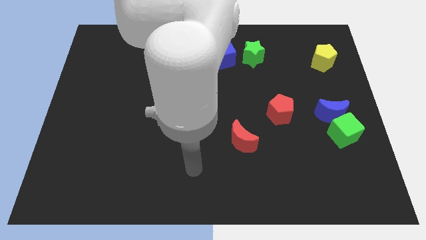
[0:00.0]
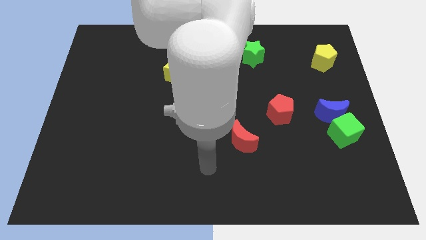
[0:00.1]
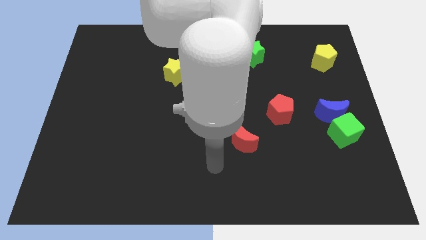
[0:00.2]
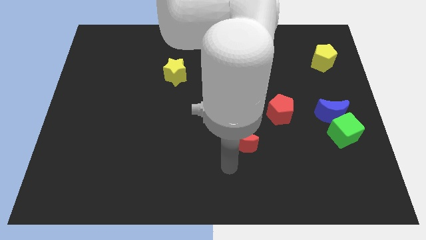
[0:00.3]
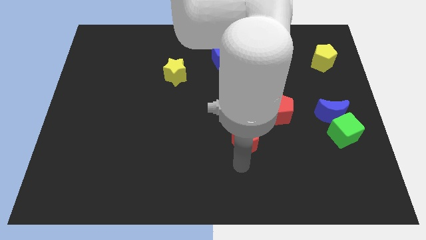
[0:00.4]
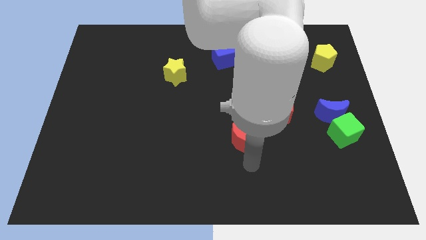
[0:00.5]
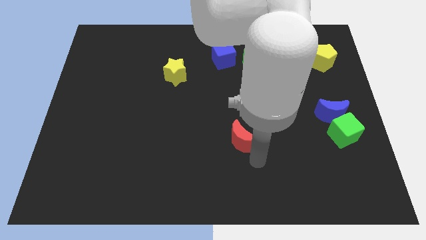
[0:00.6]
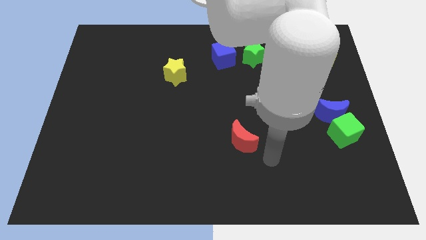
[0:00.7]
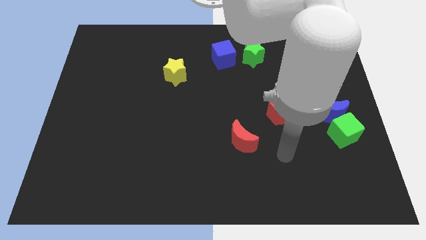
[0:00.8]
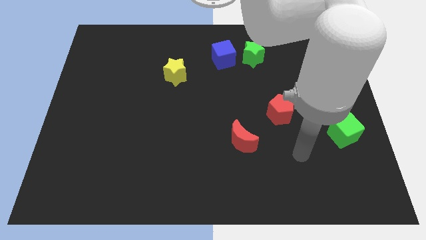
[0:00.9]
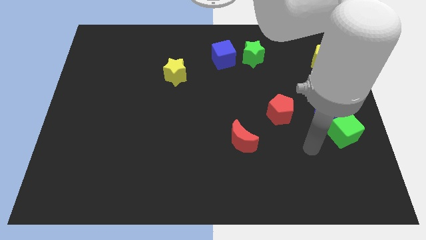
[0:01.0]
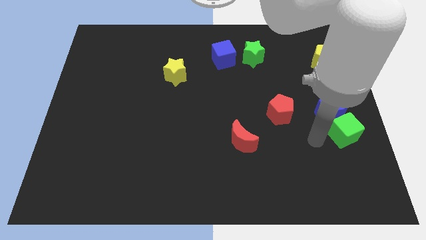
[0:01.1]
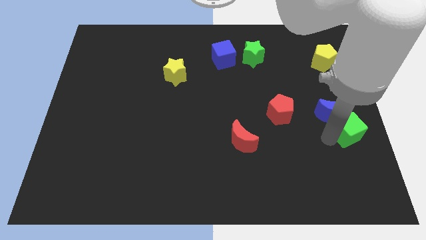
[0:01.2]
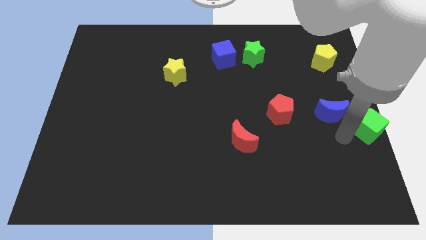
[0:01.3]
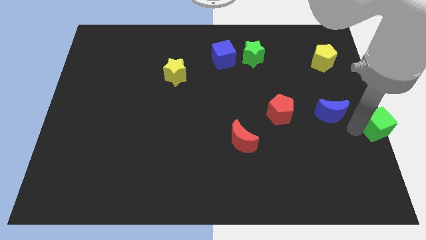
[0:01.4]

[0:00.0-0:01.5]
separate the blue moon from the green cube

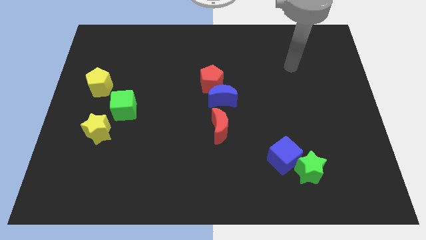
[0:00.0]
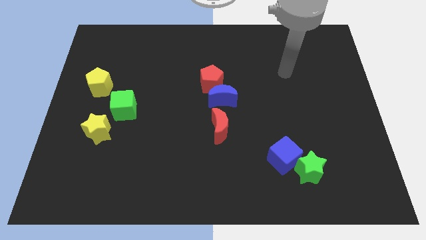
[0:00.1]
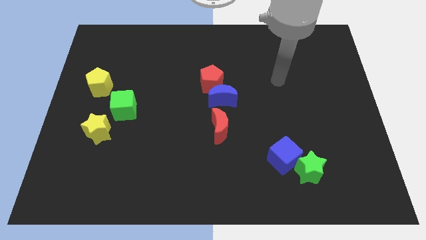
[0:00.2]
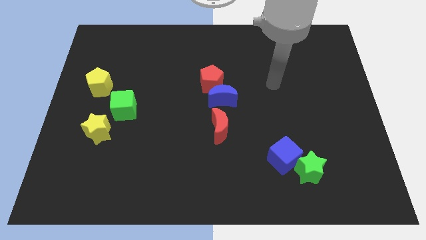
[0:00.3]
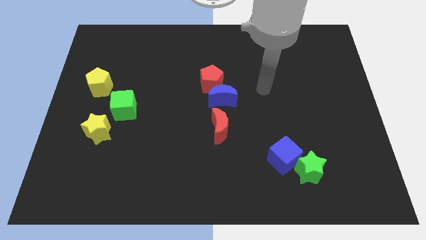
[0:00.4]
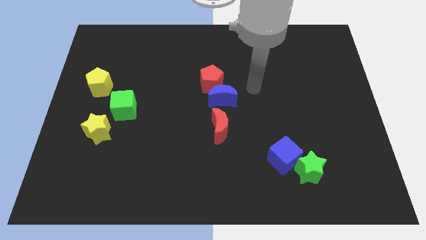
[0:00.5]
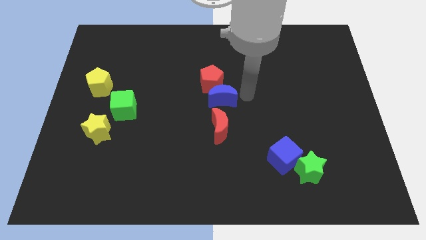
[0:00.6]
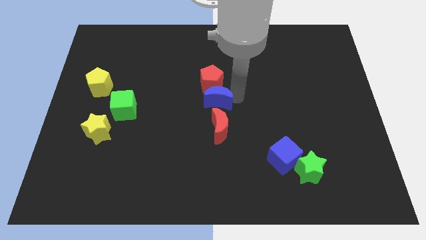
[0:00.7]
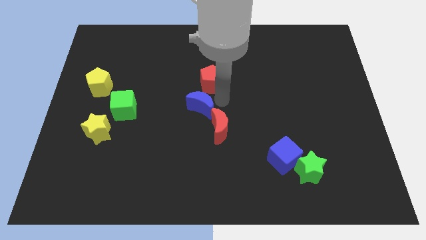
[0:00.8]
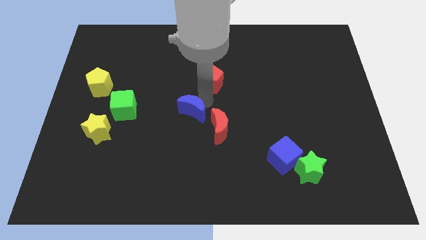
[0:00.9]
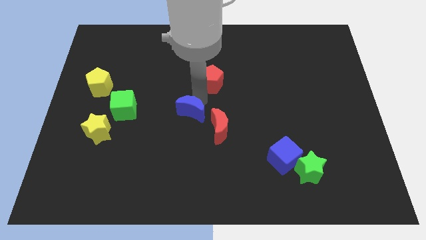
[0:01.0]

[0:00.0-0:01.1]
pull the red pentagon apart from the blue moon

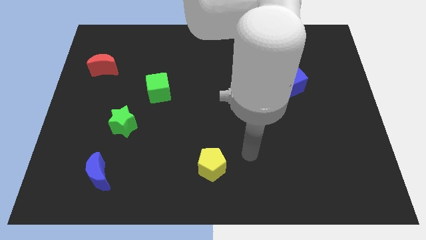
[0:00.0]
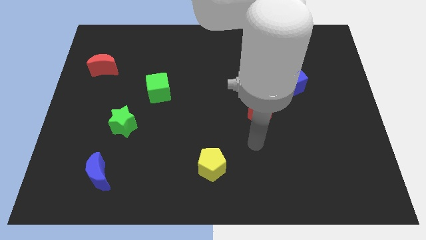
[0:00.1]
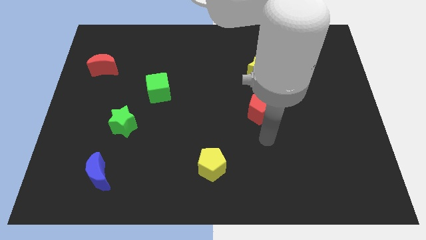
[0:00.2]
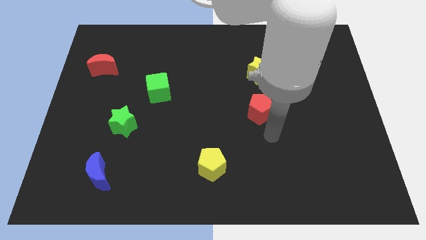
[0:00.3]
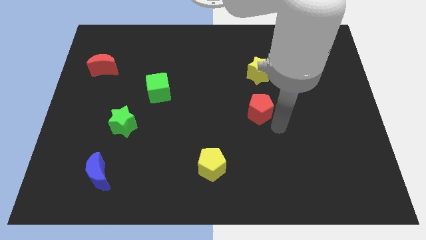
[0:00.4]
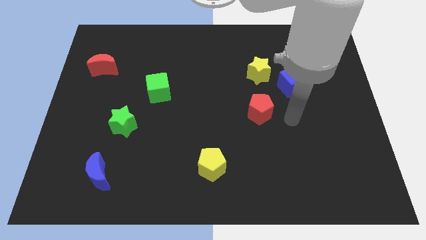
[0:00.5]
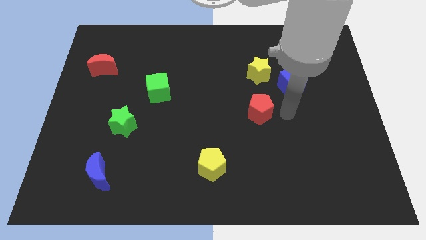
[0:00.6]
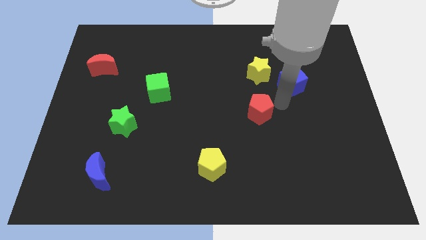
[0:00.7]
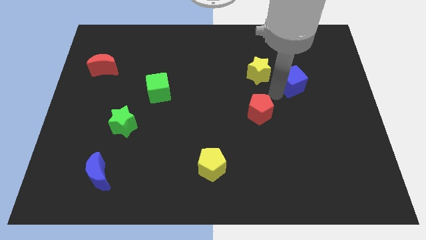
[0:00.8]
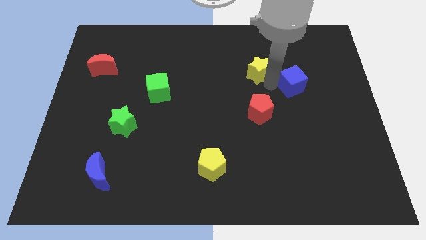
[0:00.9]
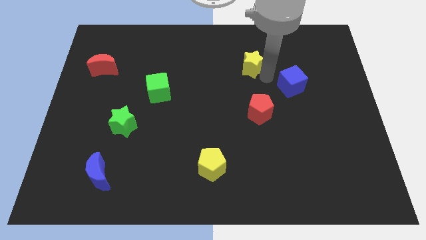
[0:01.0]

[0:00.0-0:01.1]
separate the blue cube from the yellow star

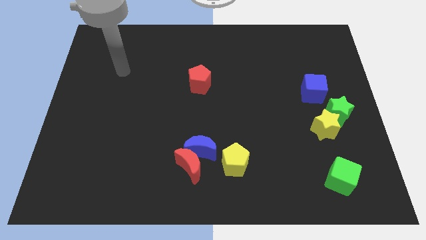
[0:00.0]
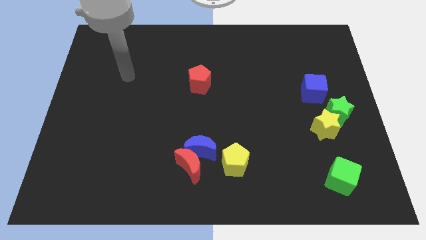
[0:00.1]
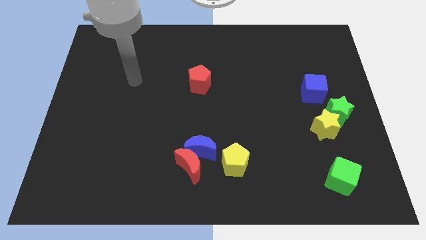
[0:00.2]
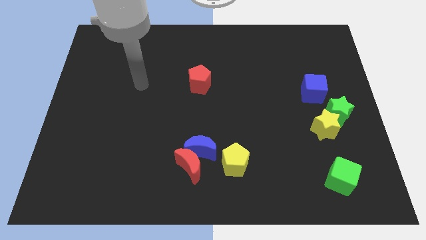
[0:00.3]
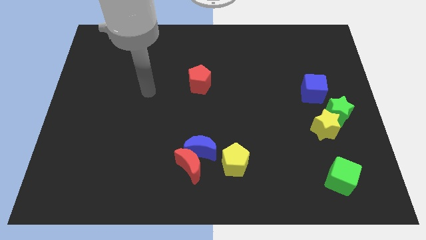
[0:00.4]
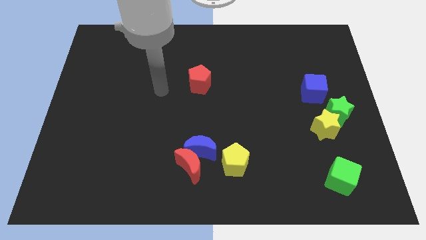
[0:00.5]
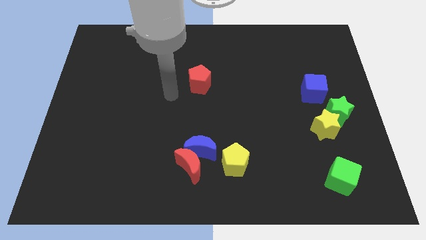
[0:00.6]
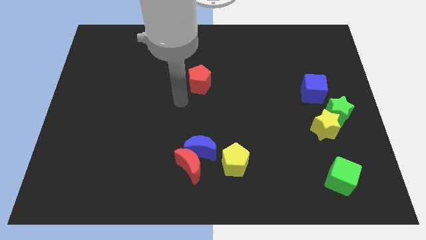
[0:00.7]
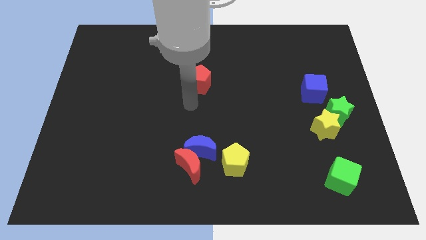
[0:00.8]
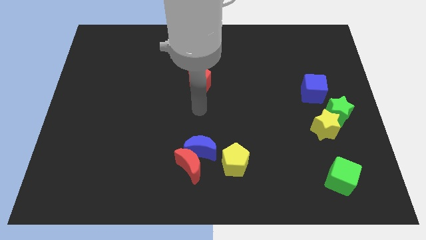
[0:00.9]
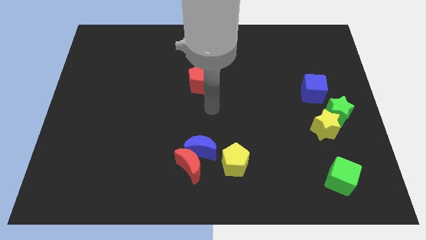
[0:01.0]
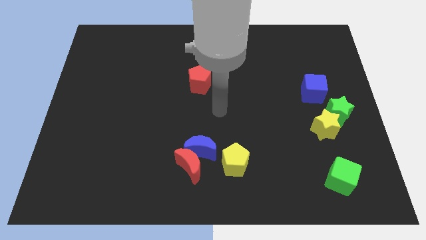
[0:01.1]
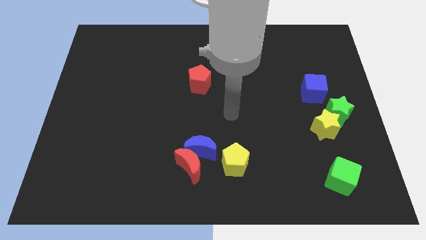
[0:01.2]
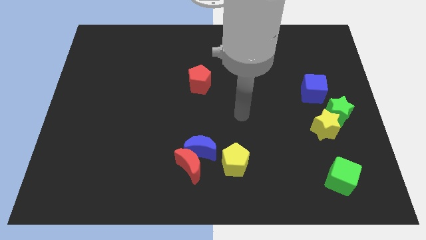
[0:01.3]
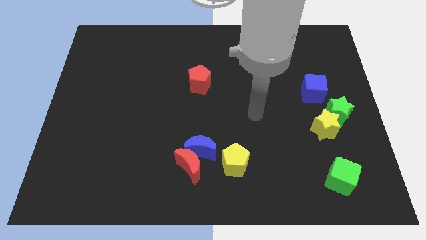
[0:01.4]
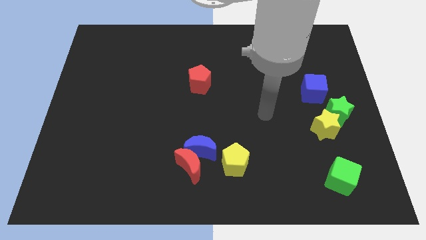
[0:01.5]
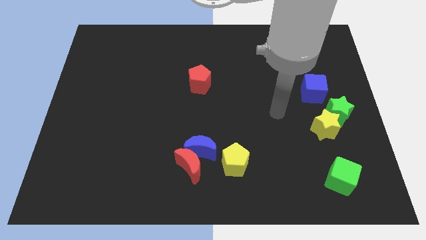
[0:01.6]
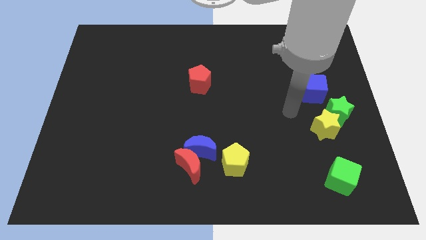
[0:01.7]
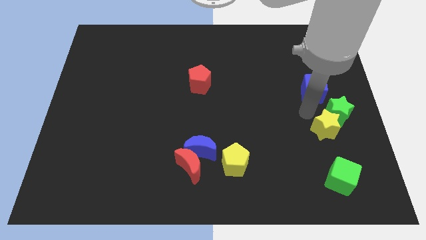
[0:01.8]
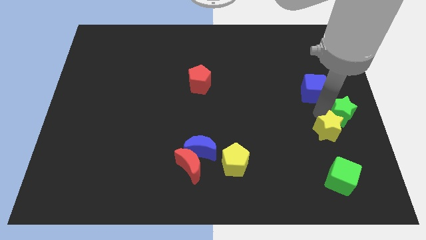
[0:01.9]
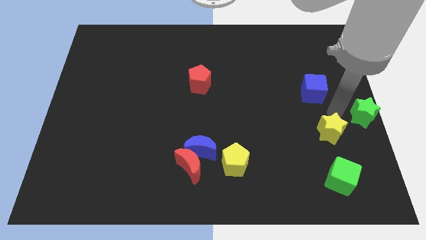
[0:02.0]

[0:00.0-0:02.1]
separate the yellow star from the green star

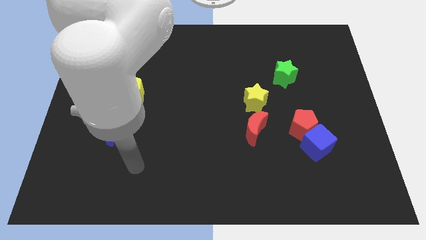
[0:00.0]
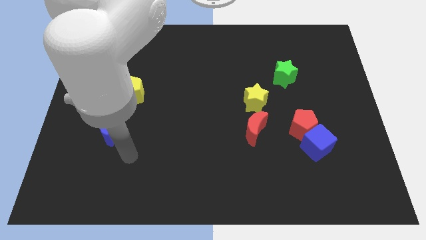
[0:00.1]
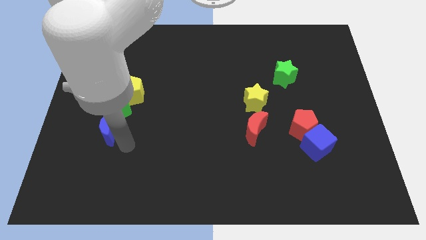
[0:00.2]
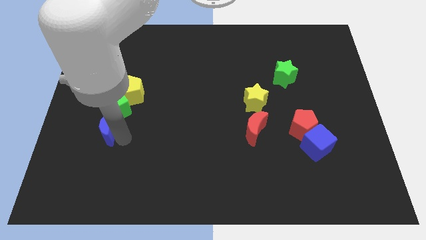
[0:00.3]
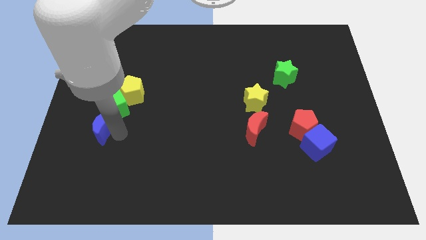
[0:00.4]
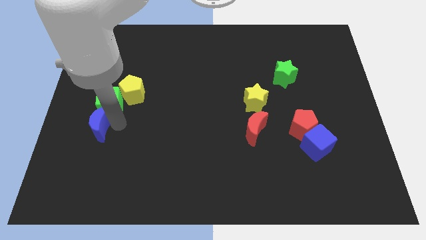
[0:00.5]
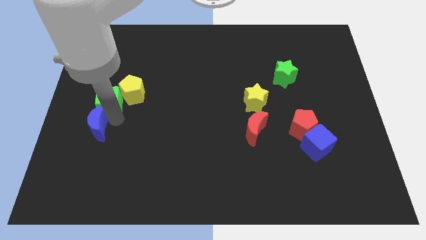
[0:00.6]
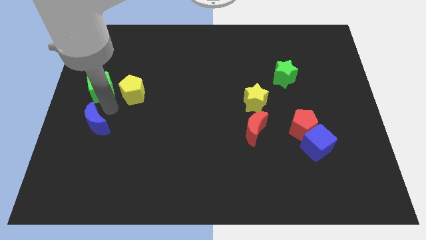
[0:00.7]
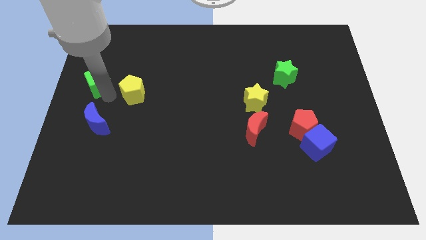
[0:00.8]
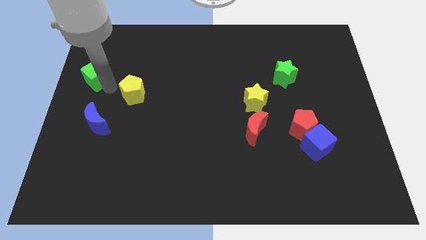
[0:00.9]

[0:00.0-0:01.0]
separate the yellow pentagon from the green cube

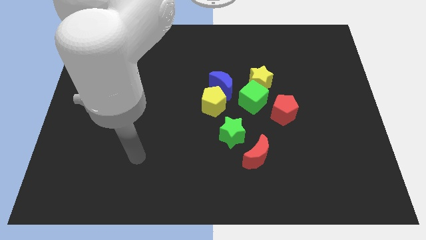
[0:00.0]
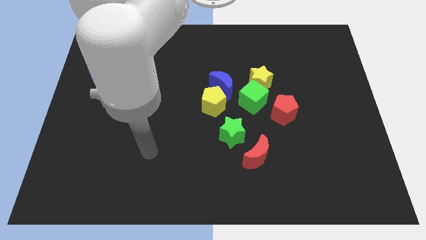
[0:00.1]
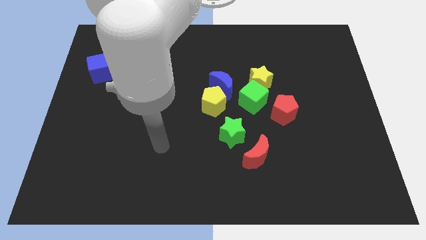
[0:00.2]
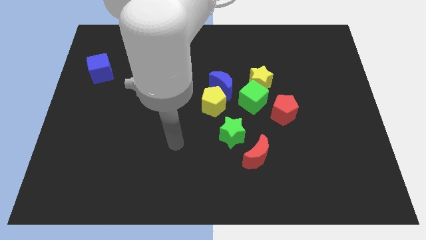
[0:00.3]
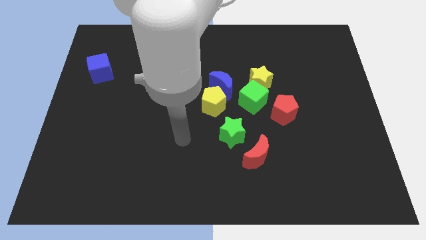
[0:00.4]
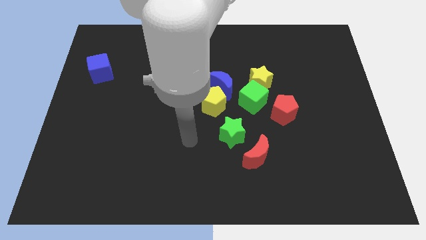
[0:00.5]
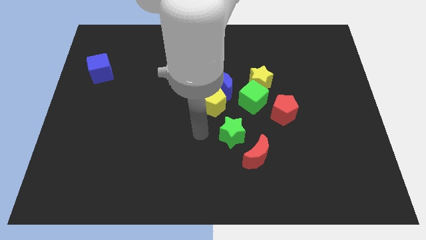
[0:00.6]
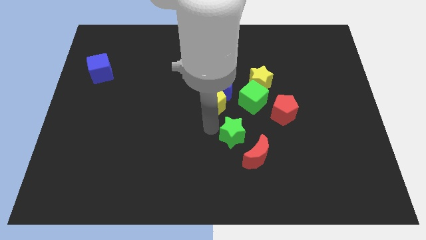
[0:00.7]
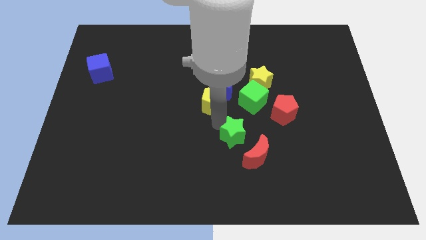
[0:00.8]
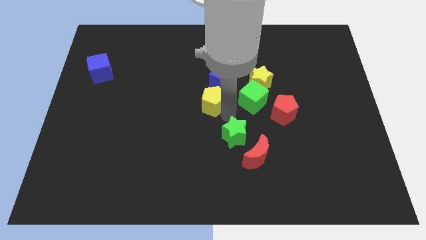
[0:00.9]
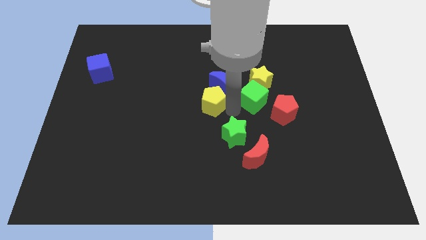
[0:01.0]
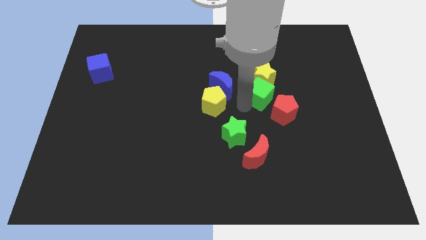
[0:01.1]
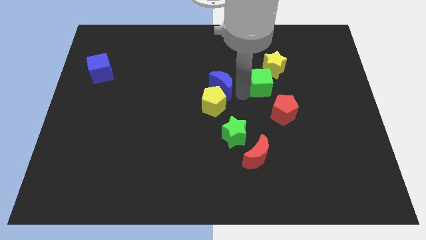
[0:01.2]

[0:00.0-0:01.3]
pull the yellow star apart from the green cube and blue moon

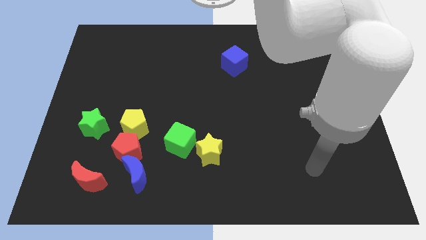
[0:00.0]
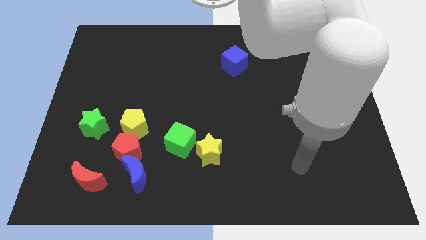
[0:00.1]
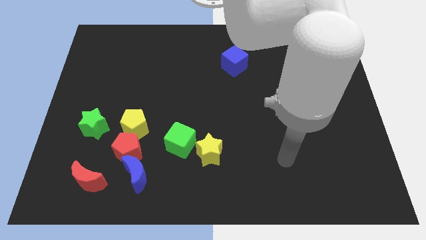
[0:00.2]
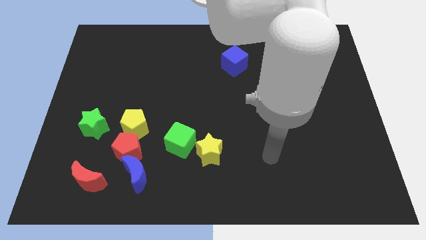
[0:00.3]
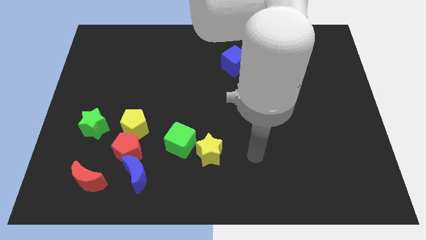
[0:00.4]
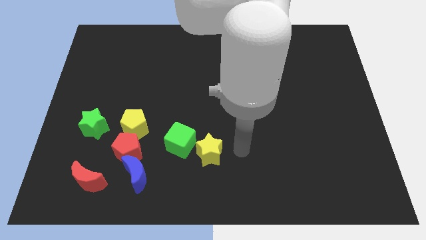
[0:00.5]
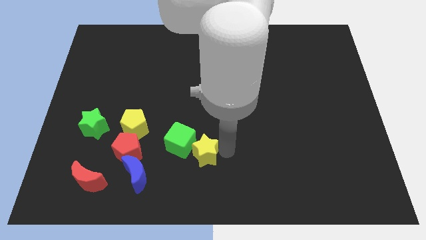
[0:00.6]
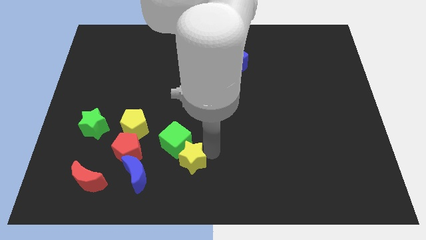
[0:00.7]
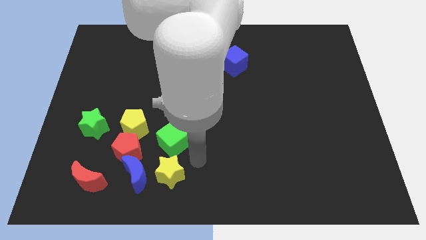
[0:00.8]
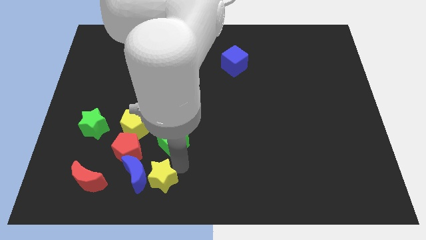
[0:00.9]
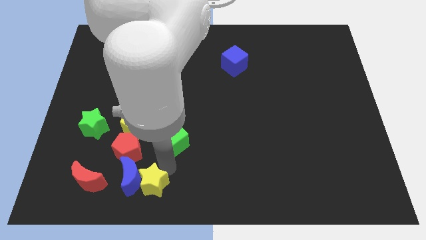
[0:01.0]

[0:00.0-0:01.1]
separate the green cube from the yellow star

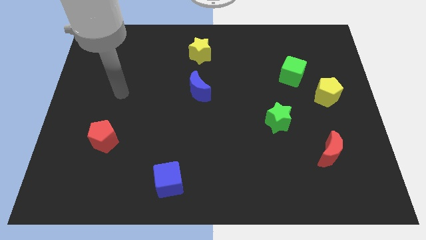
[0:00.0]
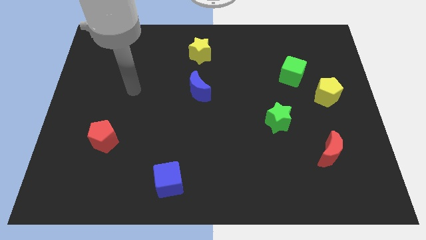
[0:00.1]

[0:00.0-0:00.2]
separate the green cube from the yellow pentagon
